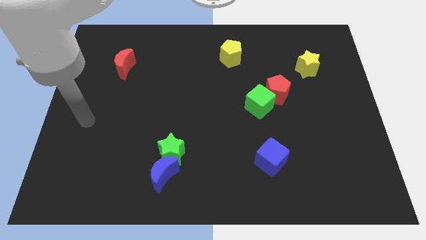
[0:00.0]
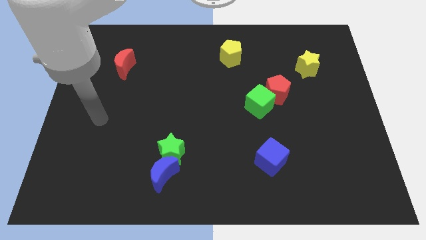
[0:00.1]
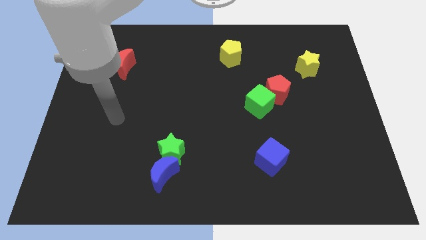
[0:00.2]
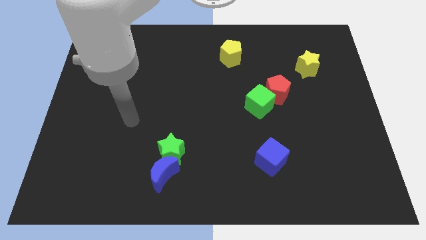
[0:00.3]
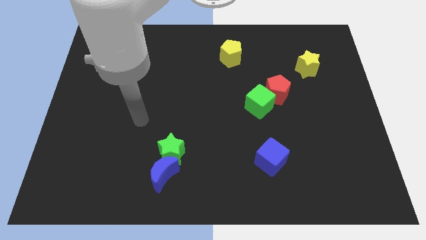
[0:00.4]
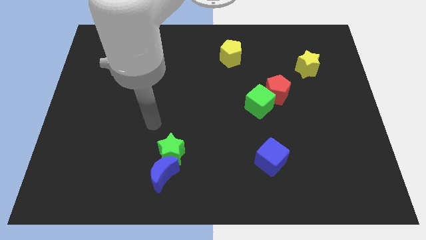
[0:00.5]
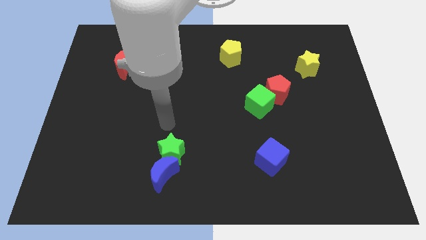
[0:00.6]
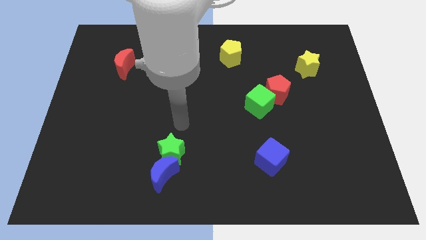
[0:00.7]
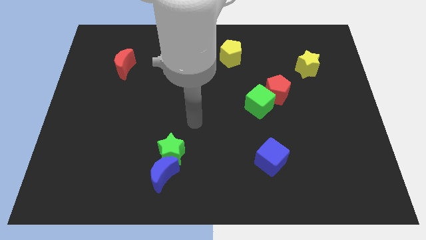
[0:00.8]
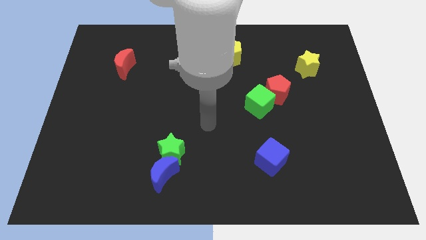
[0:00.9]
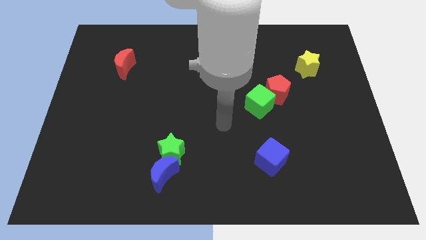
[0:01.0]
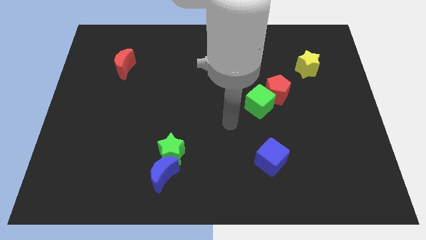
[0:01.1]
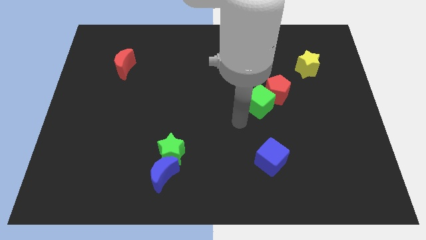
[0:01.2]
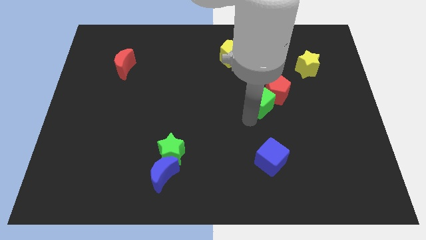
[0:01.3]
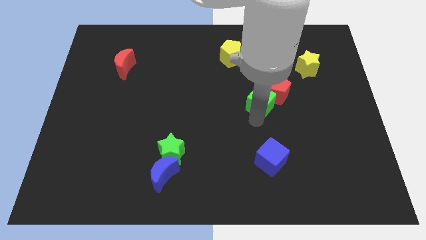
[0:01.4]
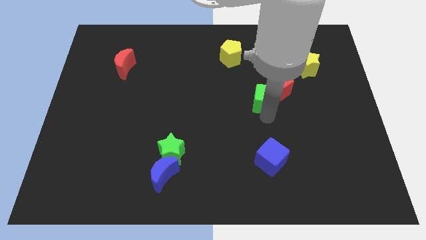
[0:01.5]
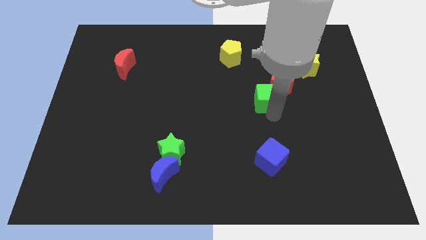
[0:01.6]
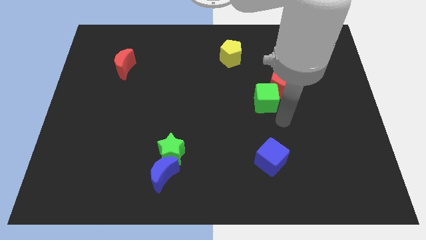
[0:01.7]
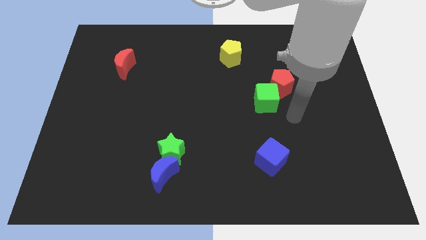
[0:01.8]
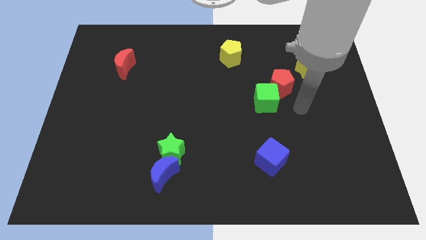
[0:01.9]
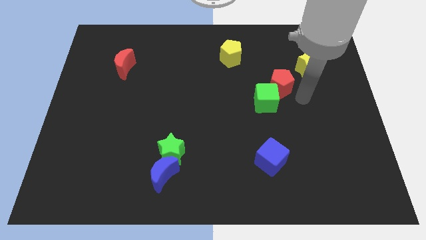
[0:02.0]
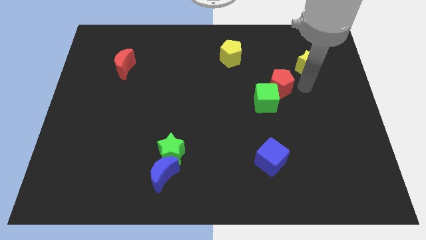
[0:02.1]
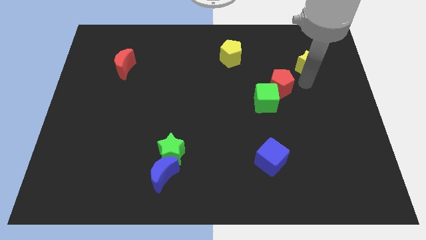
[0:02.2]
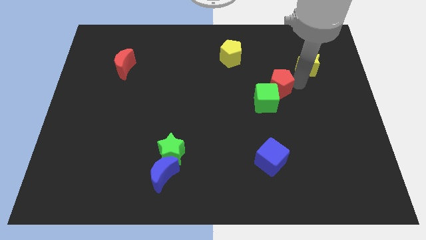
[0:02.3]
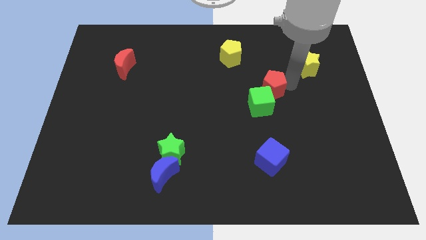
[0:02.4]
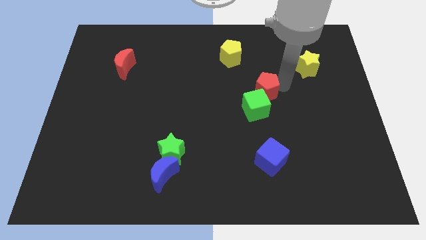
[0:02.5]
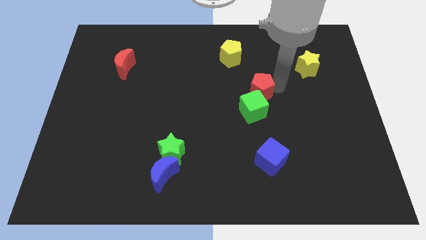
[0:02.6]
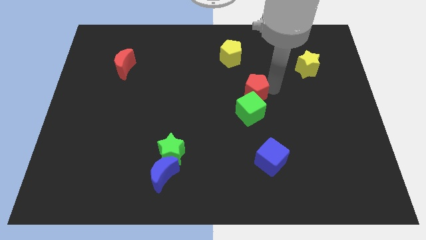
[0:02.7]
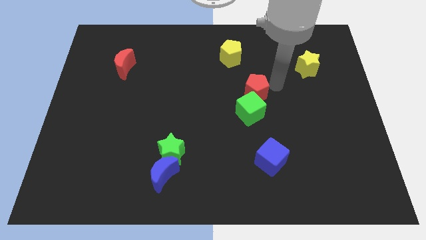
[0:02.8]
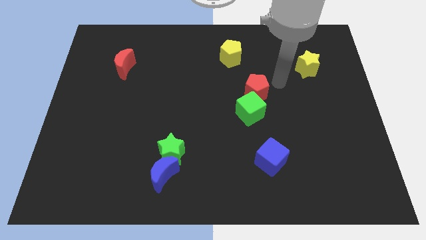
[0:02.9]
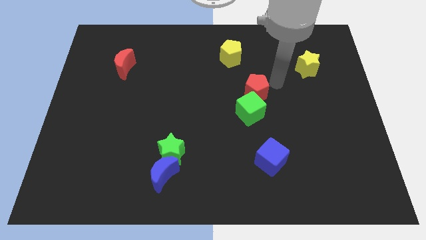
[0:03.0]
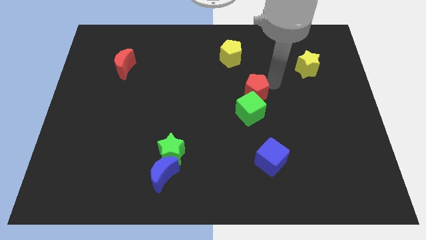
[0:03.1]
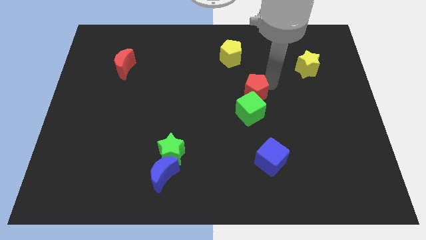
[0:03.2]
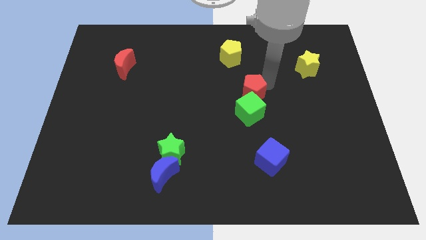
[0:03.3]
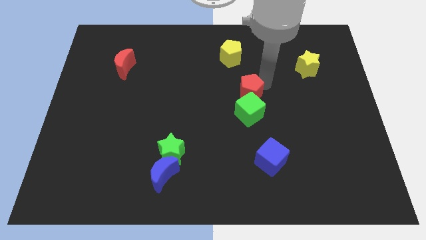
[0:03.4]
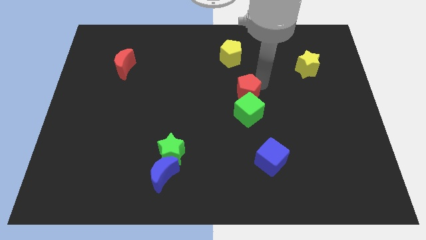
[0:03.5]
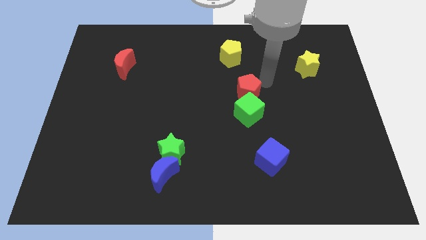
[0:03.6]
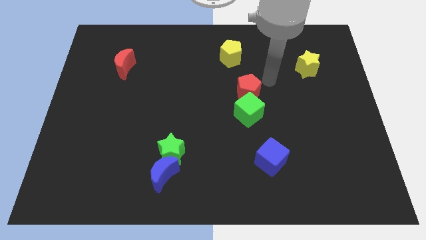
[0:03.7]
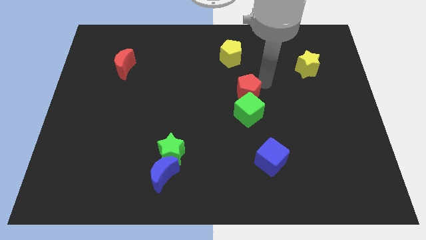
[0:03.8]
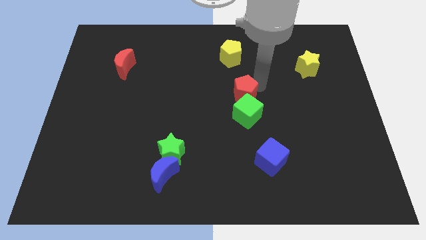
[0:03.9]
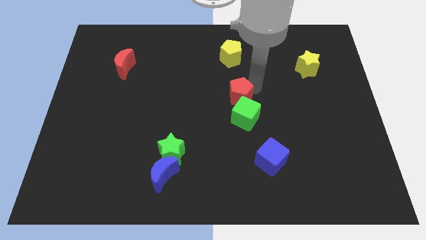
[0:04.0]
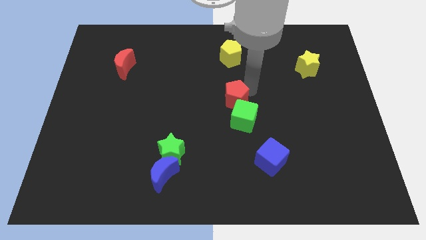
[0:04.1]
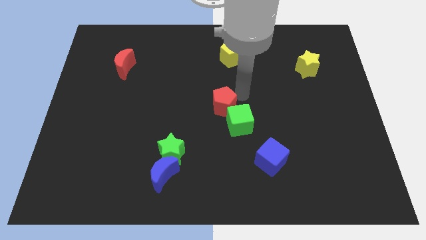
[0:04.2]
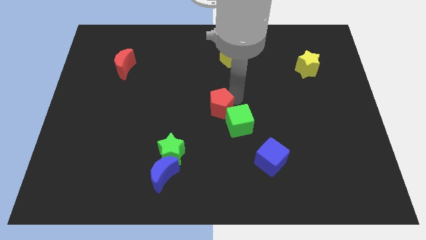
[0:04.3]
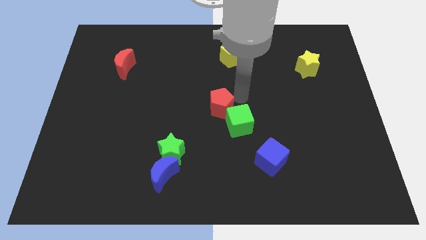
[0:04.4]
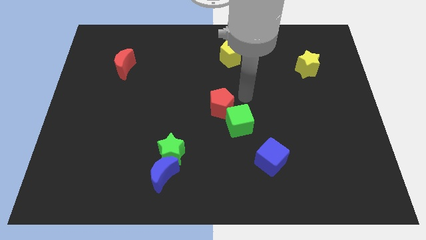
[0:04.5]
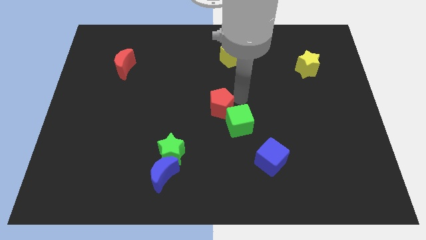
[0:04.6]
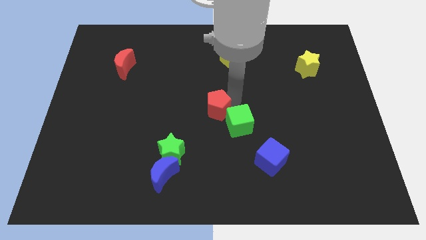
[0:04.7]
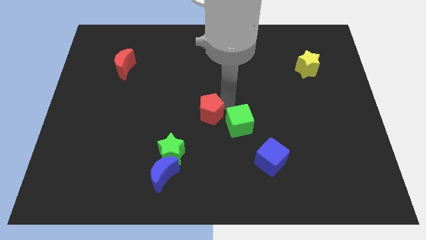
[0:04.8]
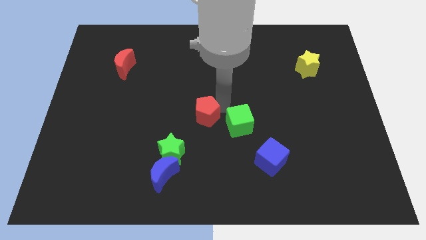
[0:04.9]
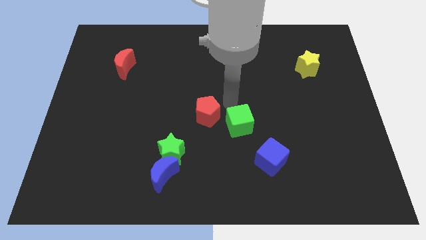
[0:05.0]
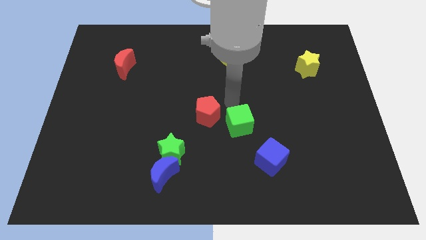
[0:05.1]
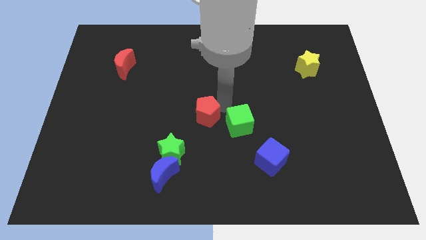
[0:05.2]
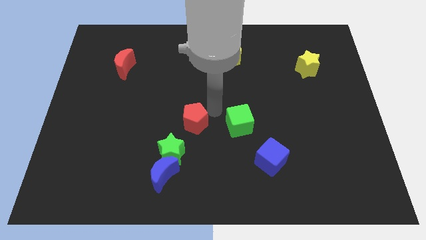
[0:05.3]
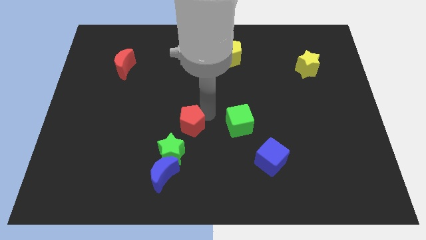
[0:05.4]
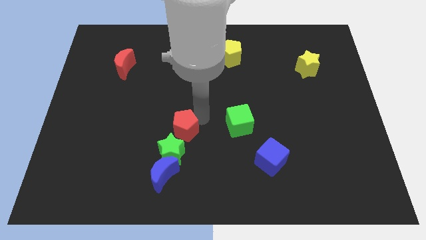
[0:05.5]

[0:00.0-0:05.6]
put the red pentagon to the top side of the blue moon

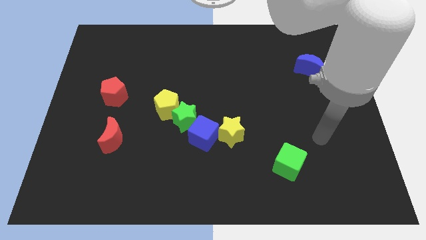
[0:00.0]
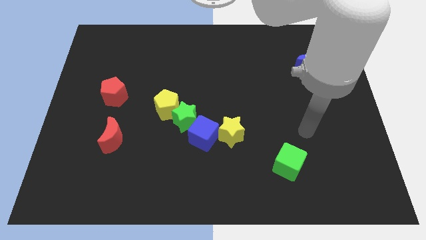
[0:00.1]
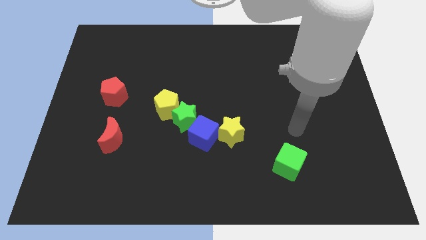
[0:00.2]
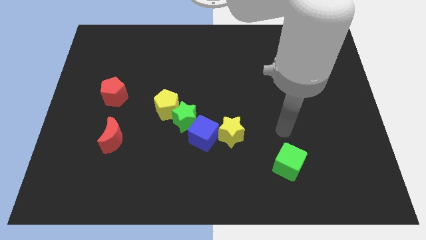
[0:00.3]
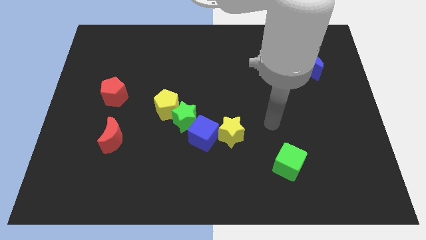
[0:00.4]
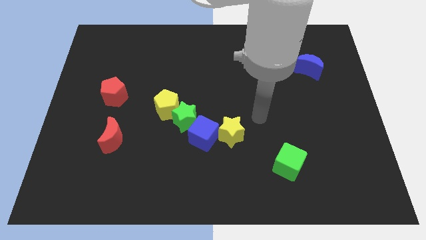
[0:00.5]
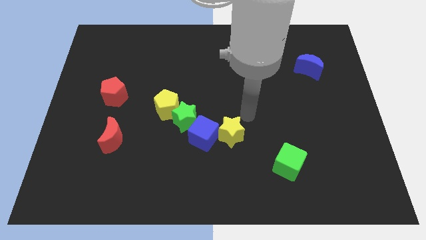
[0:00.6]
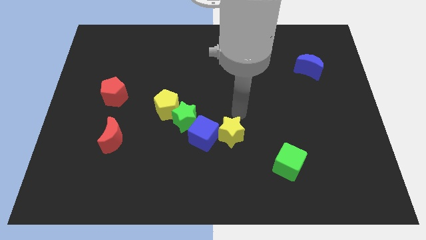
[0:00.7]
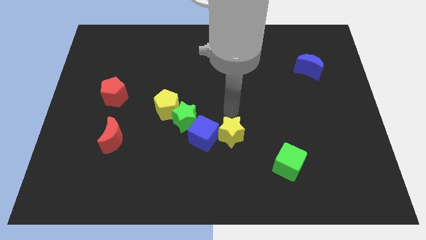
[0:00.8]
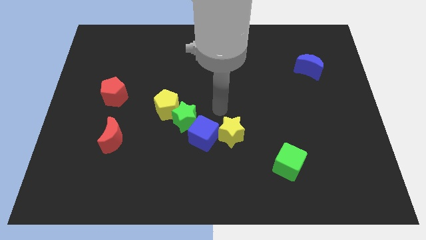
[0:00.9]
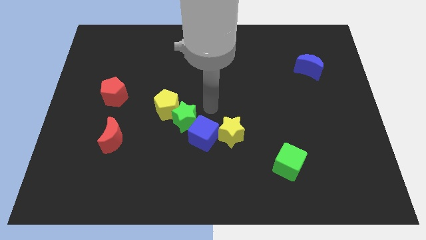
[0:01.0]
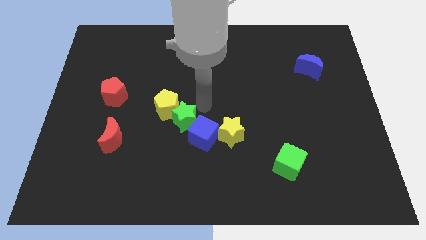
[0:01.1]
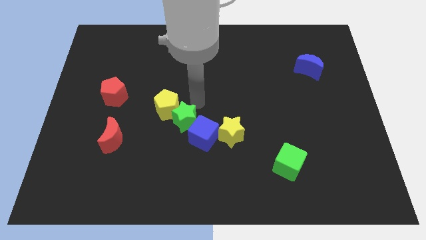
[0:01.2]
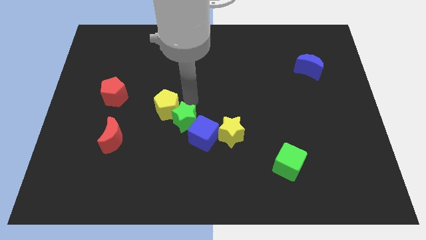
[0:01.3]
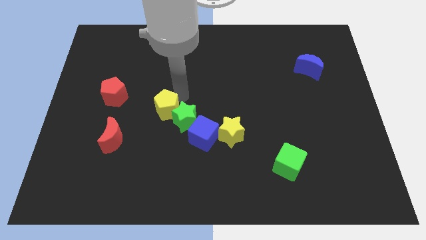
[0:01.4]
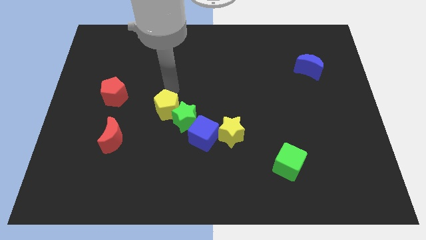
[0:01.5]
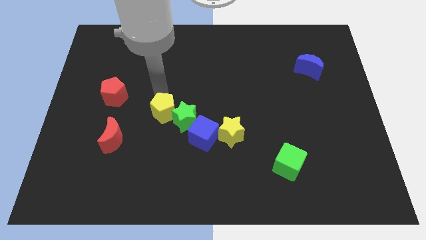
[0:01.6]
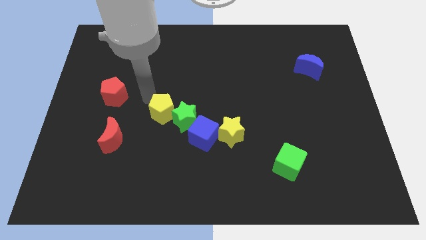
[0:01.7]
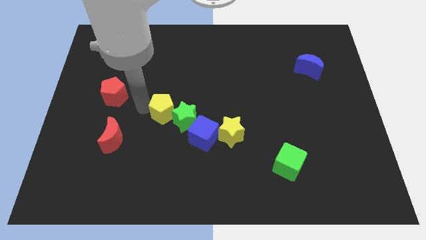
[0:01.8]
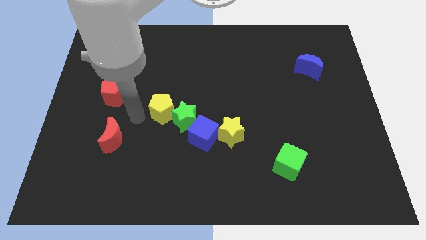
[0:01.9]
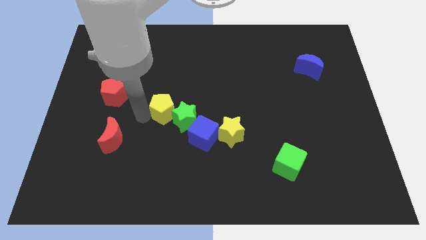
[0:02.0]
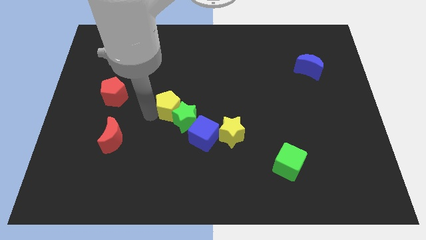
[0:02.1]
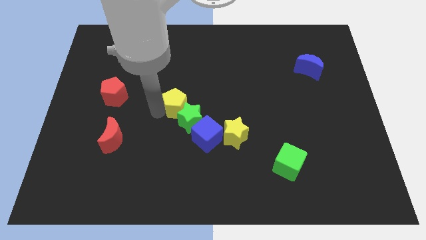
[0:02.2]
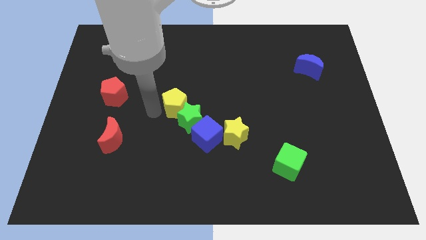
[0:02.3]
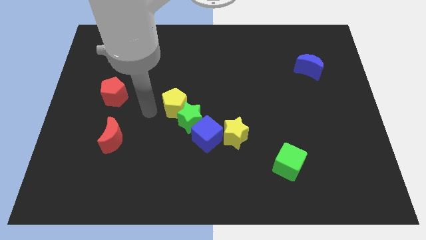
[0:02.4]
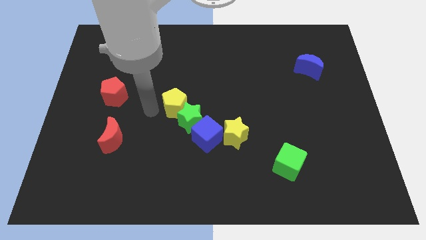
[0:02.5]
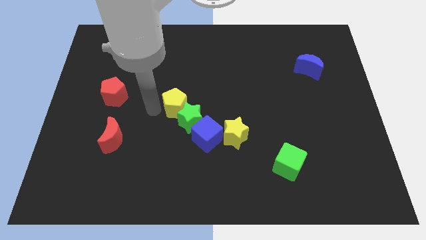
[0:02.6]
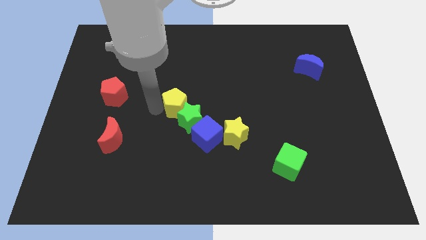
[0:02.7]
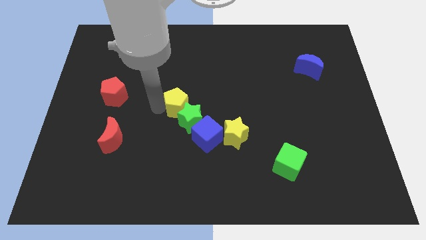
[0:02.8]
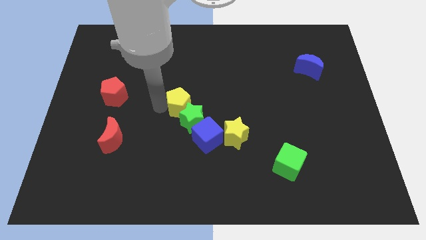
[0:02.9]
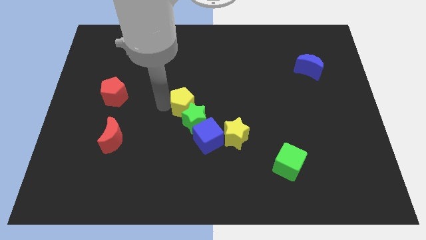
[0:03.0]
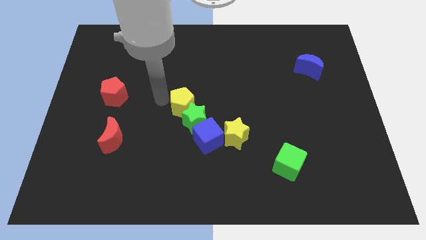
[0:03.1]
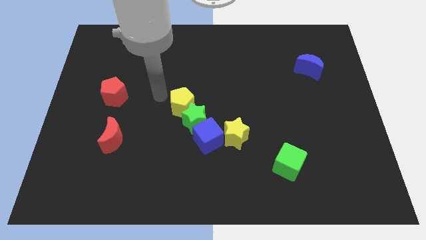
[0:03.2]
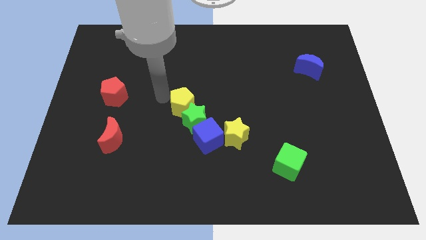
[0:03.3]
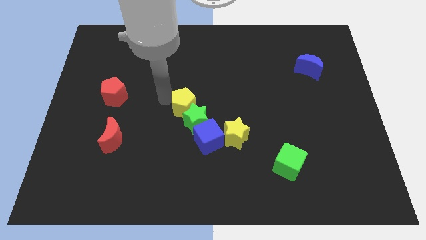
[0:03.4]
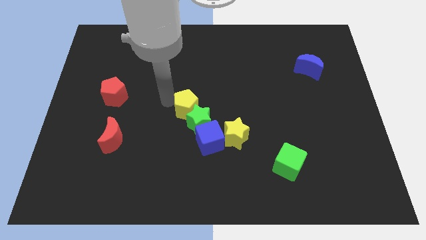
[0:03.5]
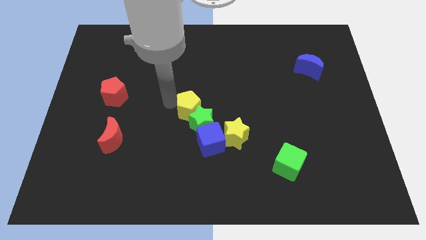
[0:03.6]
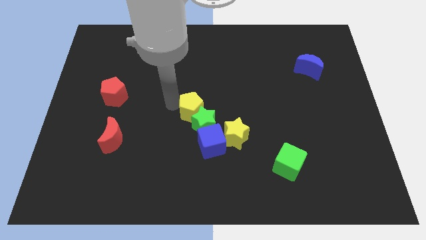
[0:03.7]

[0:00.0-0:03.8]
move the yellow pentagon diagonally up and to the left of the yellow star
